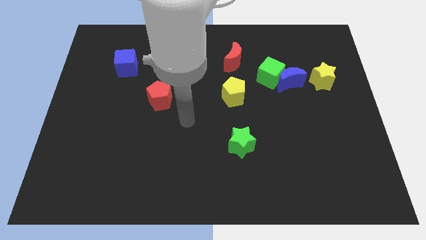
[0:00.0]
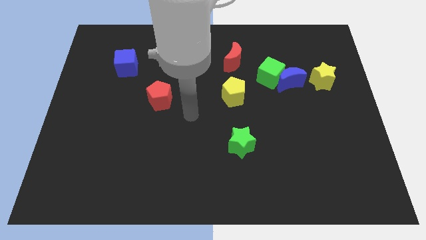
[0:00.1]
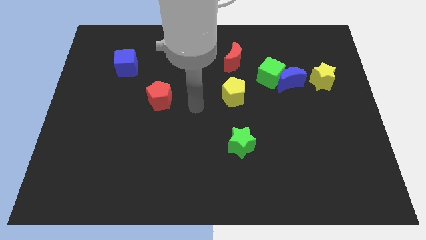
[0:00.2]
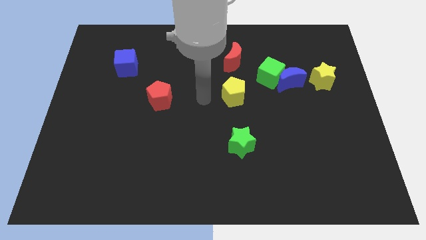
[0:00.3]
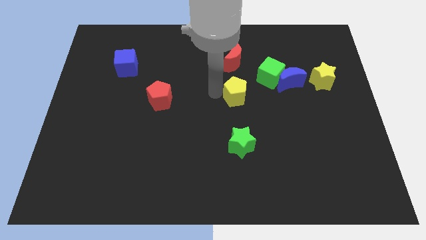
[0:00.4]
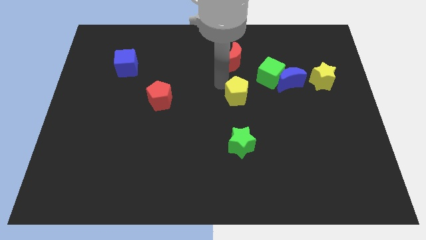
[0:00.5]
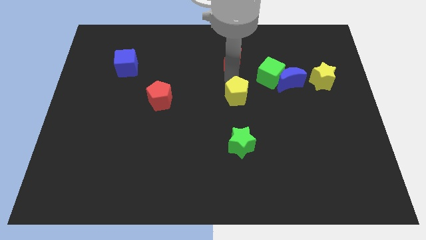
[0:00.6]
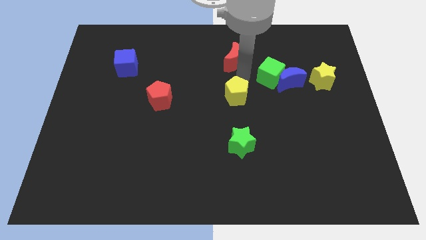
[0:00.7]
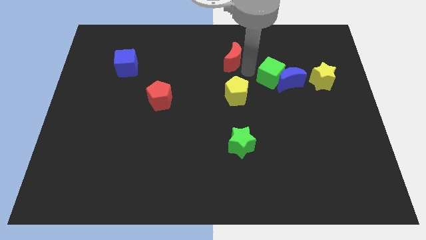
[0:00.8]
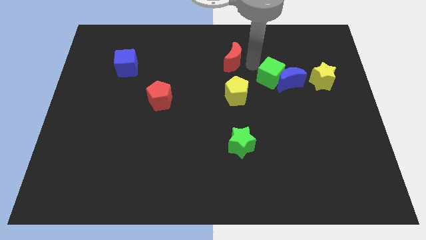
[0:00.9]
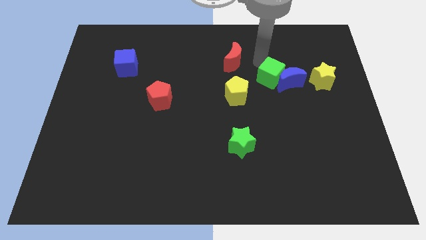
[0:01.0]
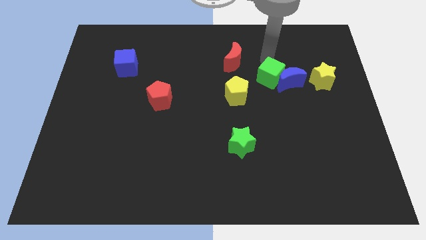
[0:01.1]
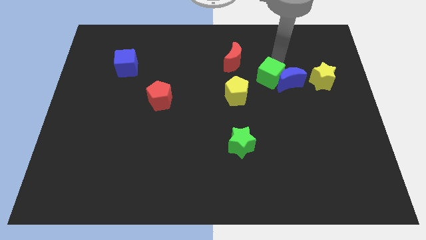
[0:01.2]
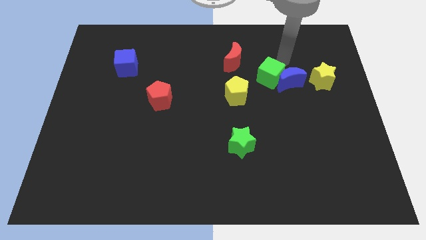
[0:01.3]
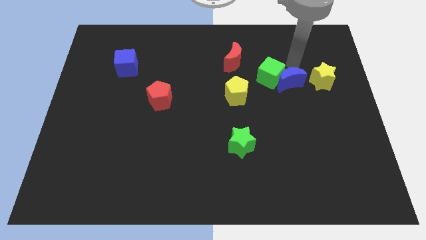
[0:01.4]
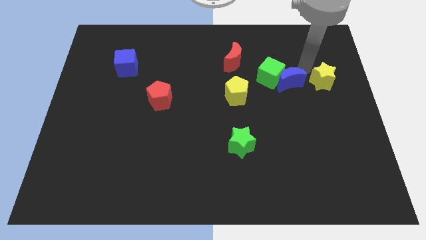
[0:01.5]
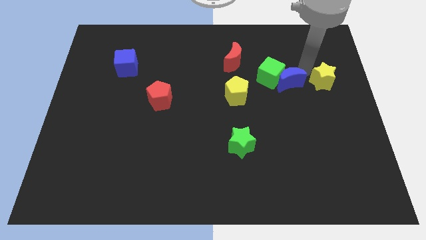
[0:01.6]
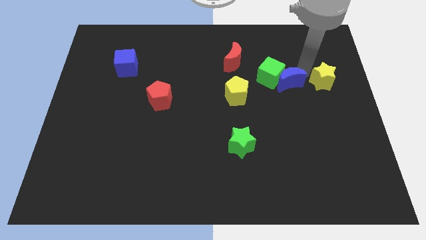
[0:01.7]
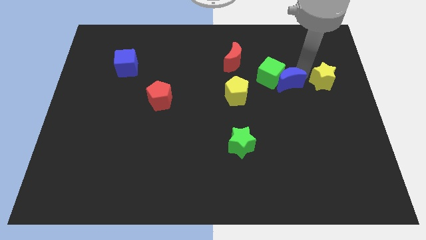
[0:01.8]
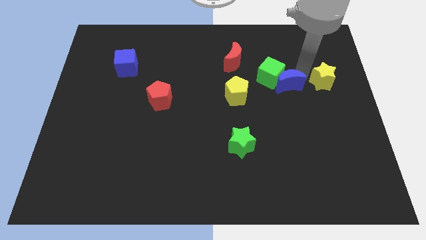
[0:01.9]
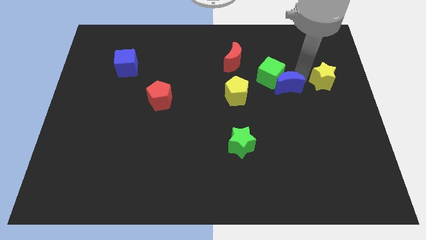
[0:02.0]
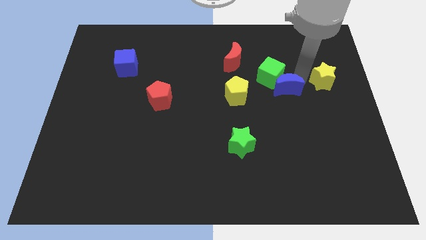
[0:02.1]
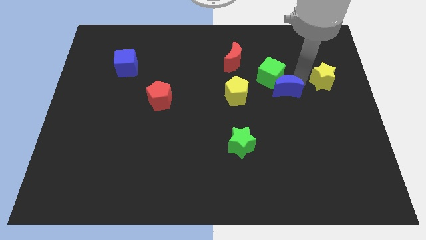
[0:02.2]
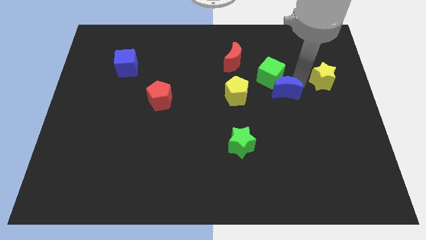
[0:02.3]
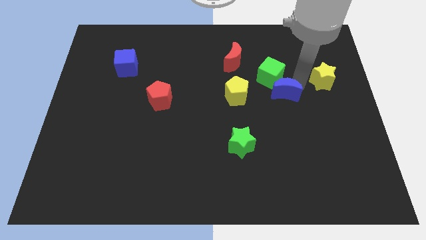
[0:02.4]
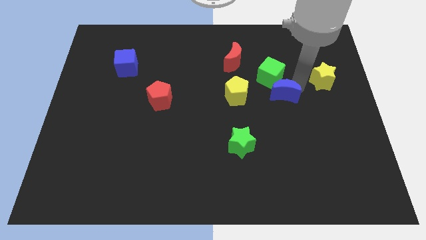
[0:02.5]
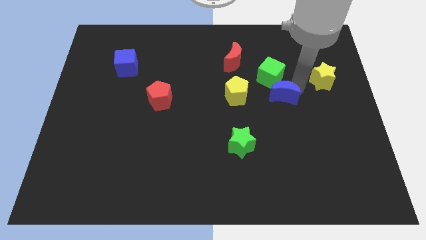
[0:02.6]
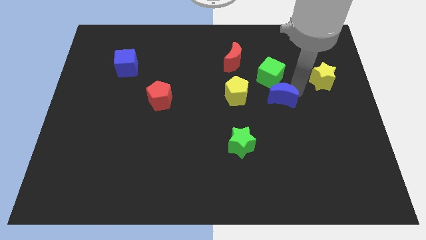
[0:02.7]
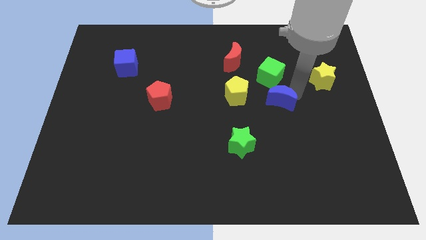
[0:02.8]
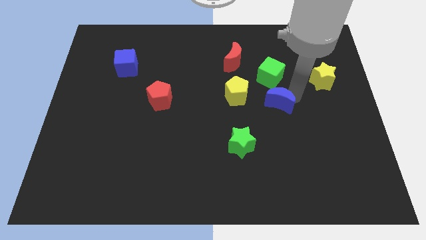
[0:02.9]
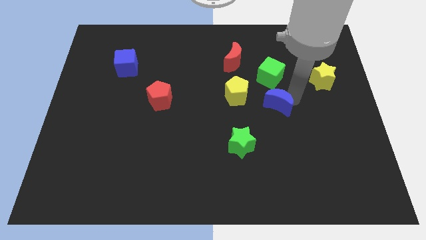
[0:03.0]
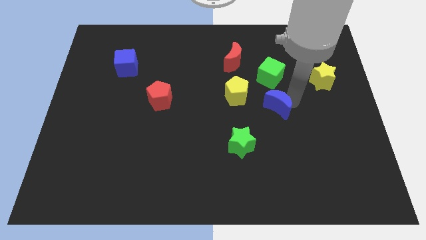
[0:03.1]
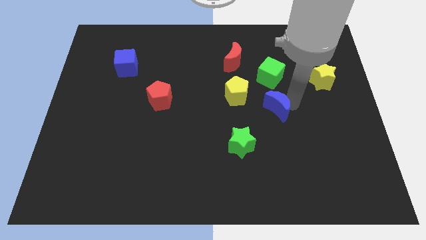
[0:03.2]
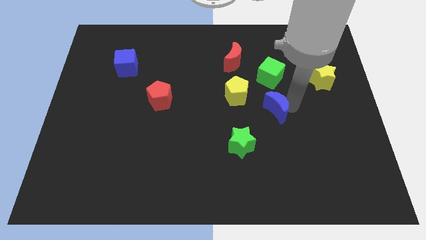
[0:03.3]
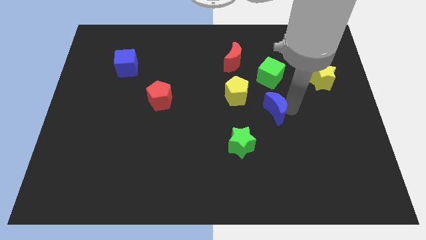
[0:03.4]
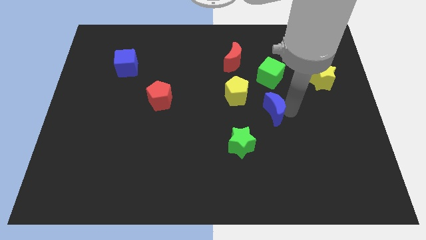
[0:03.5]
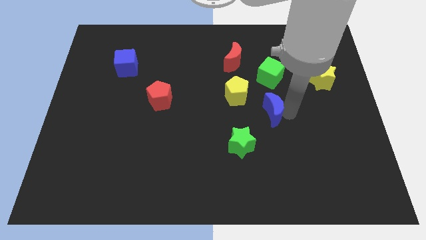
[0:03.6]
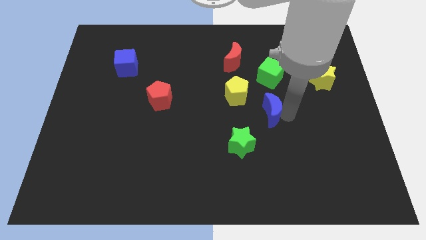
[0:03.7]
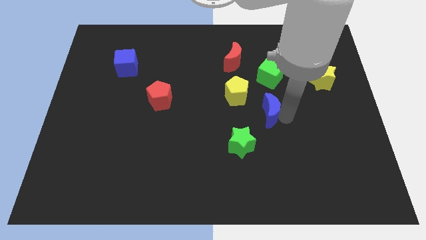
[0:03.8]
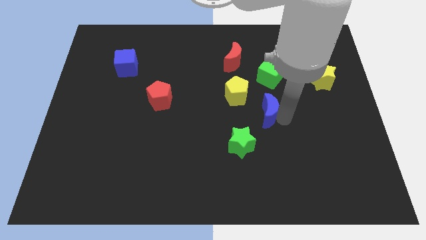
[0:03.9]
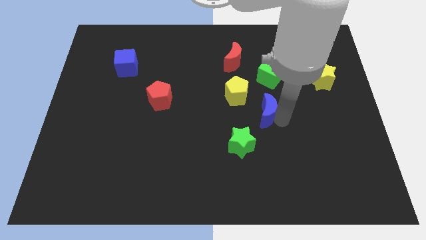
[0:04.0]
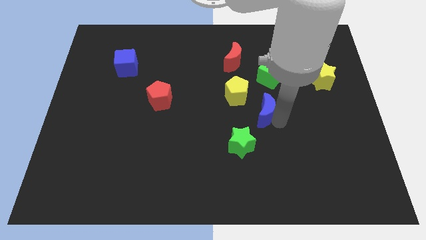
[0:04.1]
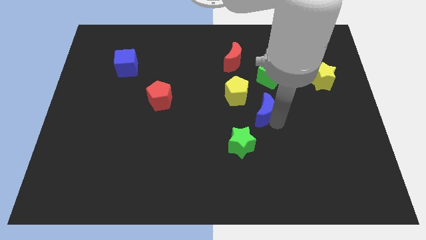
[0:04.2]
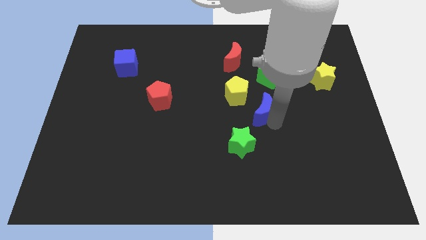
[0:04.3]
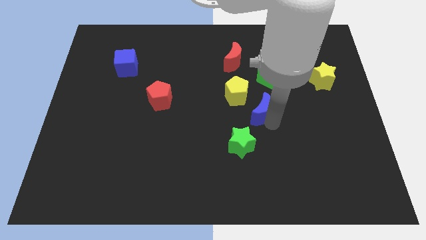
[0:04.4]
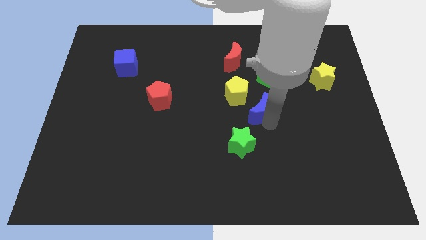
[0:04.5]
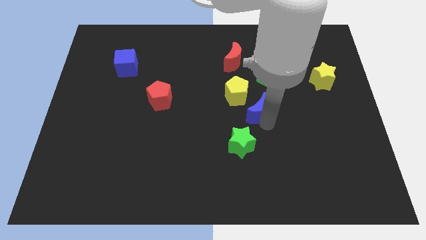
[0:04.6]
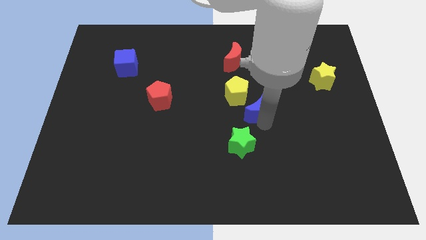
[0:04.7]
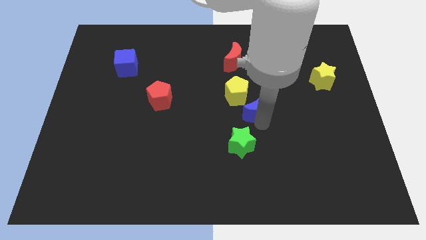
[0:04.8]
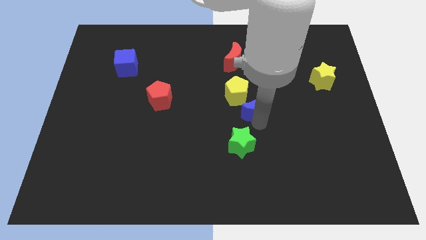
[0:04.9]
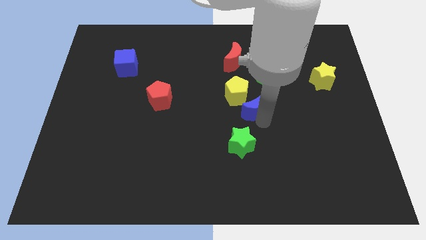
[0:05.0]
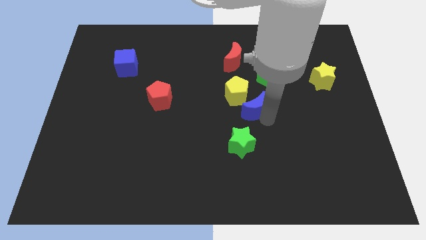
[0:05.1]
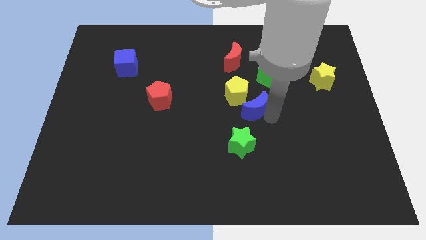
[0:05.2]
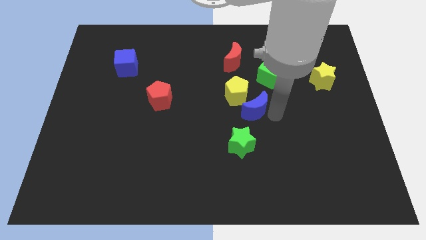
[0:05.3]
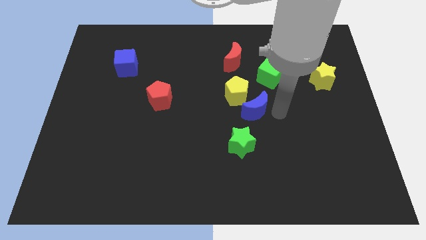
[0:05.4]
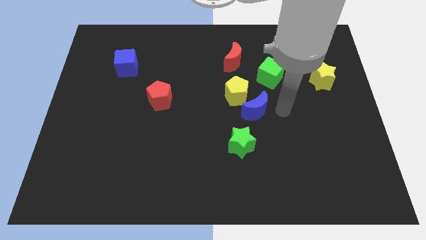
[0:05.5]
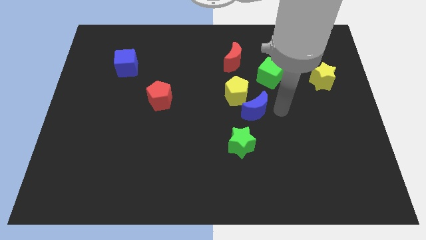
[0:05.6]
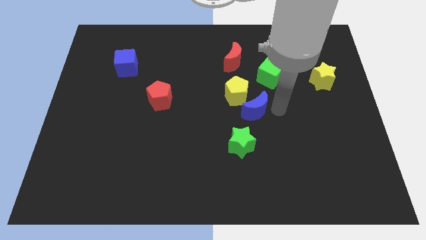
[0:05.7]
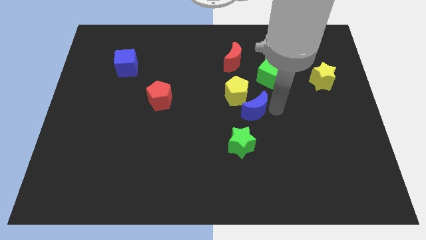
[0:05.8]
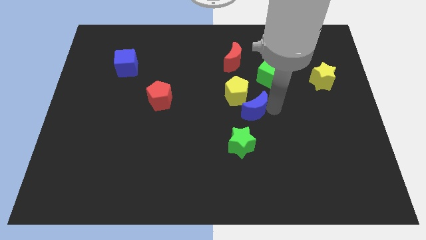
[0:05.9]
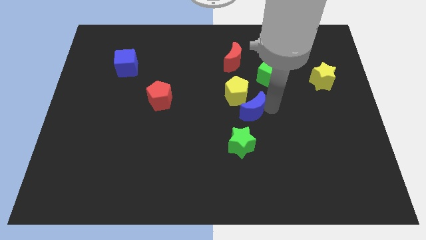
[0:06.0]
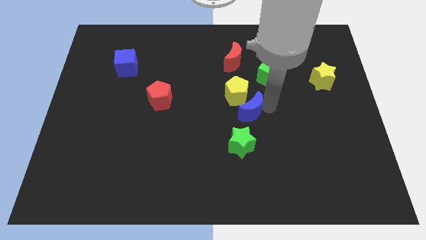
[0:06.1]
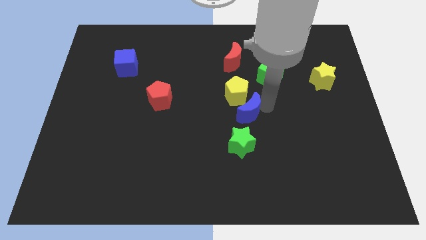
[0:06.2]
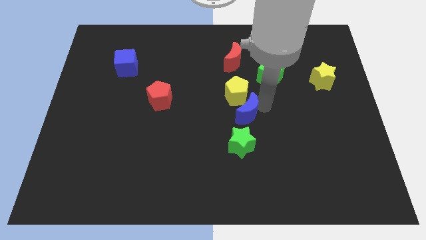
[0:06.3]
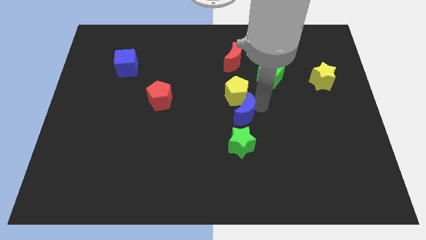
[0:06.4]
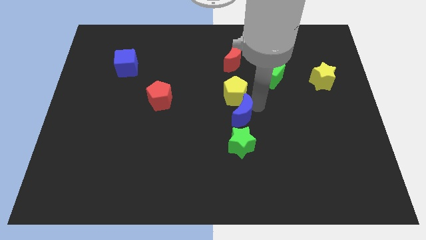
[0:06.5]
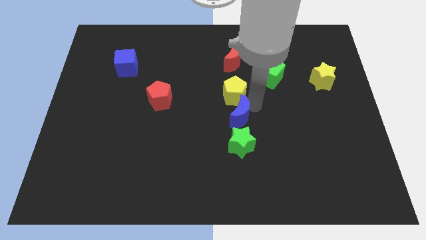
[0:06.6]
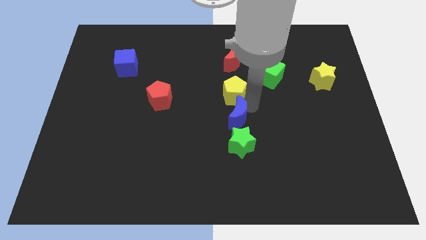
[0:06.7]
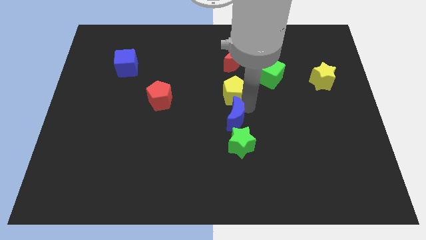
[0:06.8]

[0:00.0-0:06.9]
move the blue moon to the bottom left side of the yellow pentagon

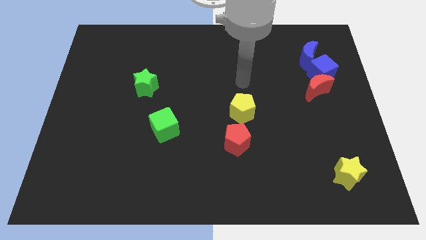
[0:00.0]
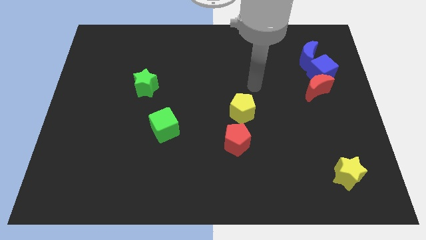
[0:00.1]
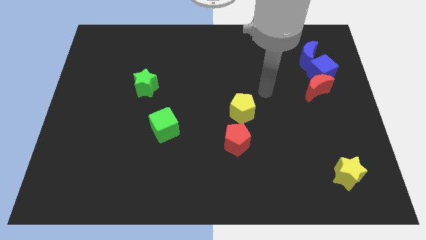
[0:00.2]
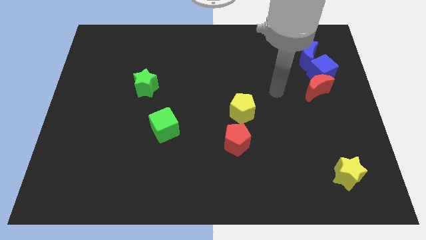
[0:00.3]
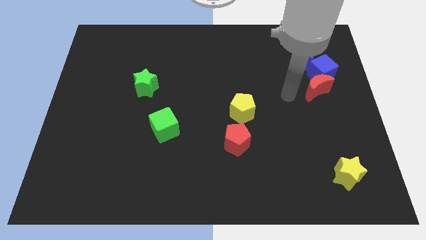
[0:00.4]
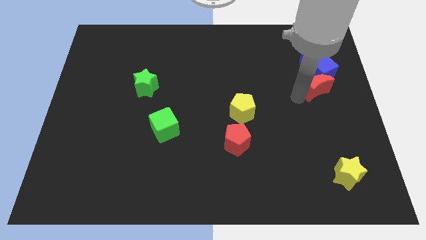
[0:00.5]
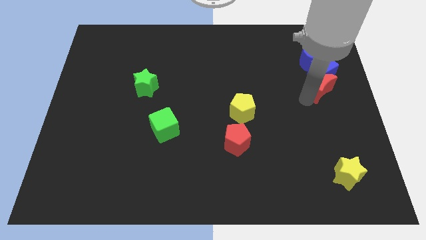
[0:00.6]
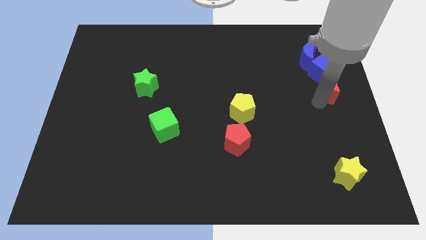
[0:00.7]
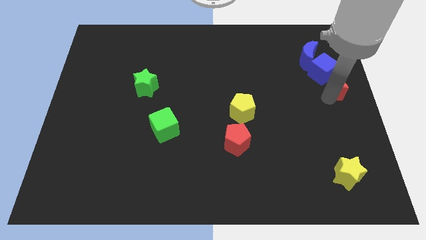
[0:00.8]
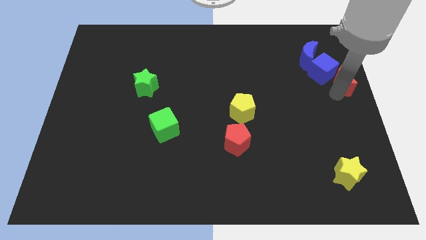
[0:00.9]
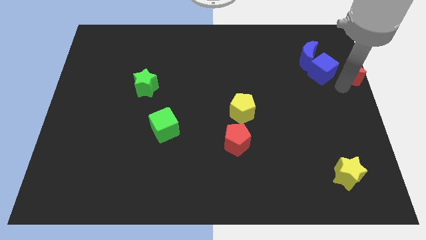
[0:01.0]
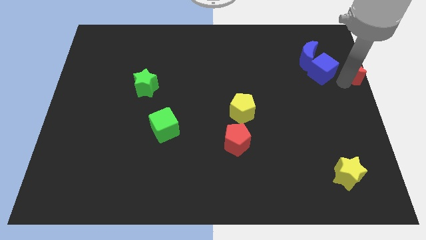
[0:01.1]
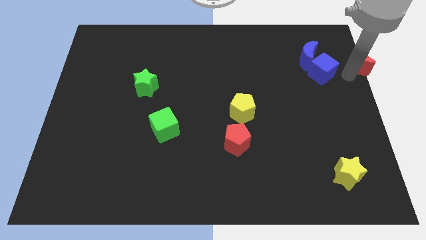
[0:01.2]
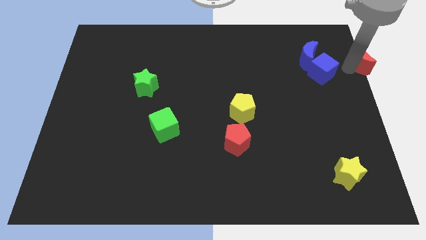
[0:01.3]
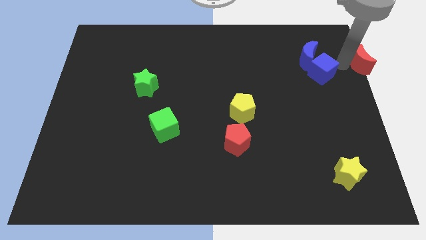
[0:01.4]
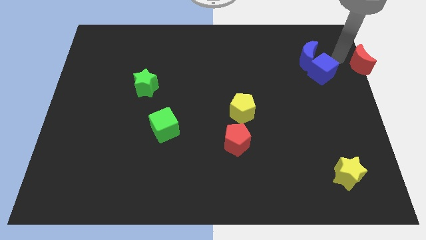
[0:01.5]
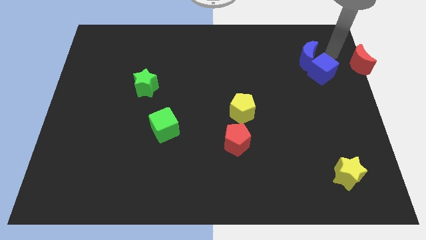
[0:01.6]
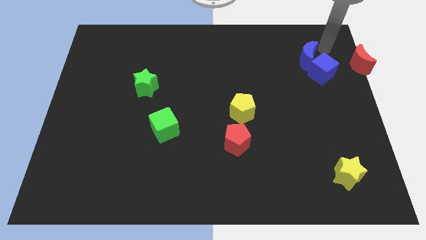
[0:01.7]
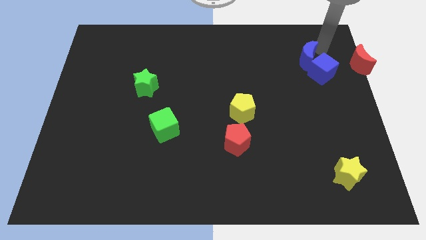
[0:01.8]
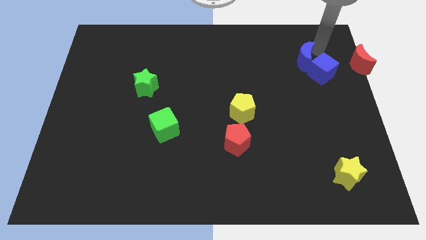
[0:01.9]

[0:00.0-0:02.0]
push the blue moon to the left of the blue cube
